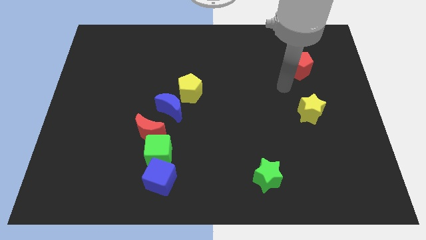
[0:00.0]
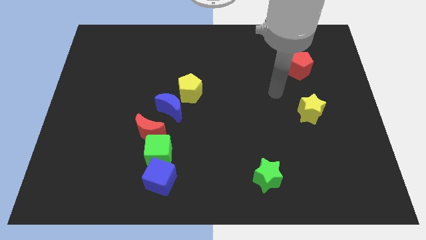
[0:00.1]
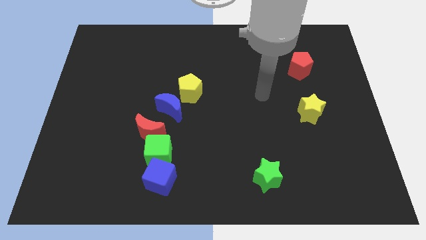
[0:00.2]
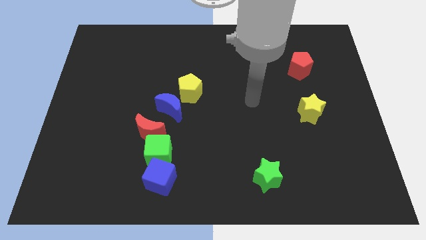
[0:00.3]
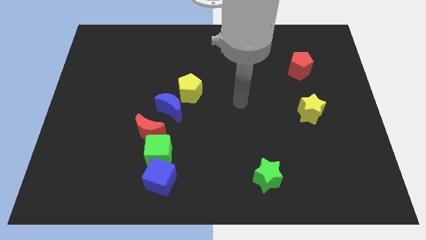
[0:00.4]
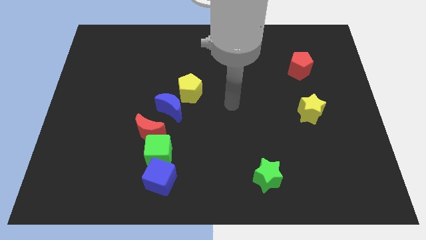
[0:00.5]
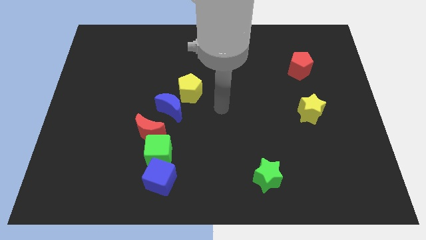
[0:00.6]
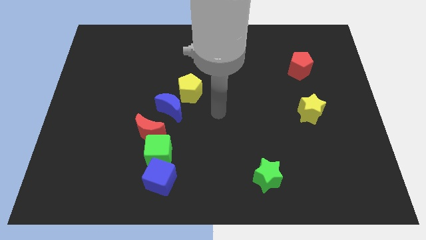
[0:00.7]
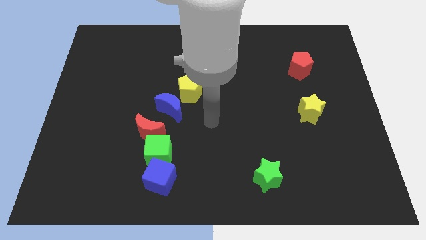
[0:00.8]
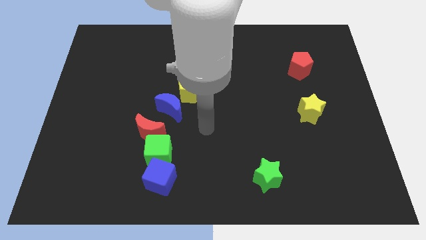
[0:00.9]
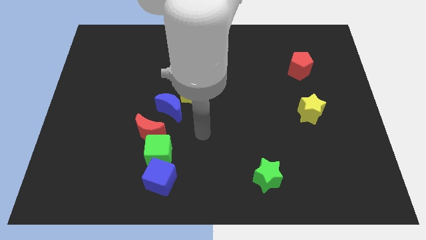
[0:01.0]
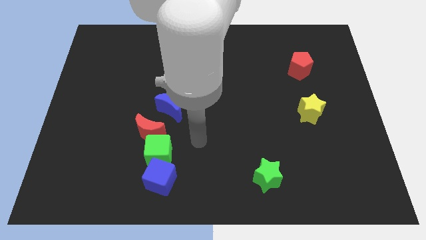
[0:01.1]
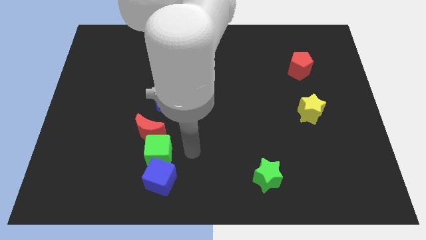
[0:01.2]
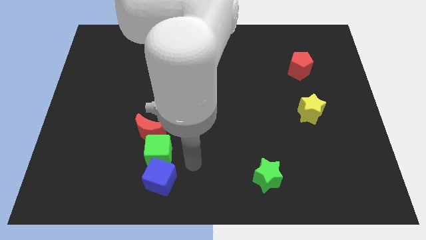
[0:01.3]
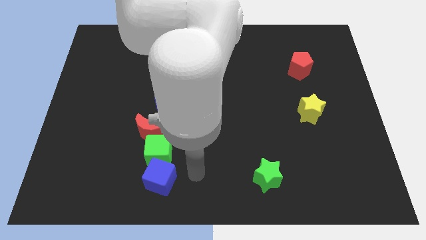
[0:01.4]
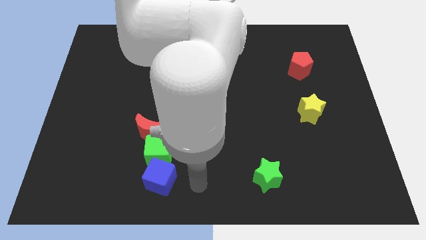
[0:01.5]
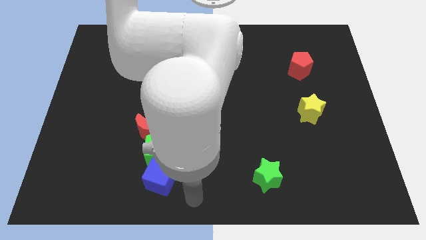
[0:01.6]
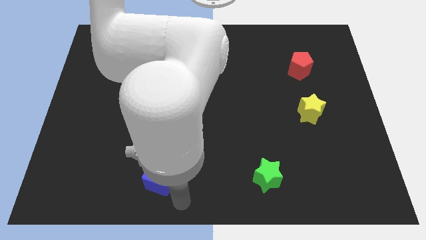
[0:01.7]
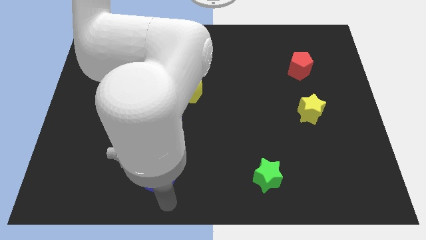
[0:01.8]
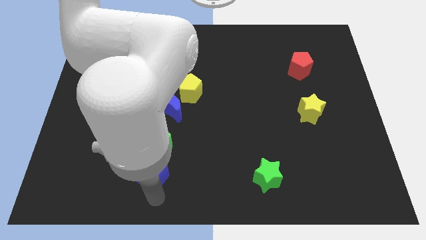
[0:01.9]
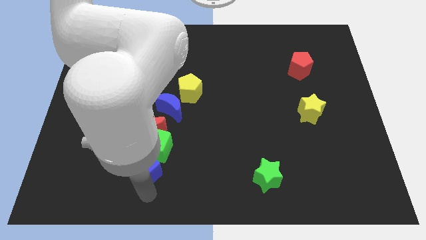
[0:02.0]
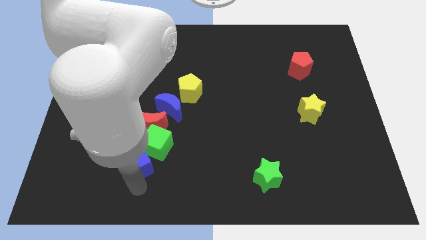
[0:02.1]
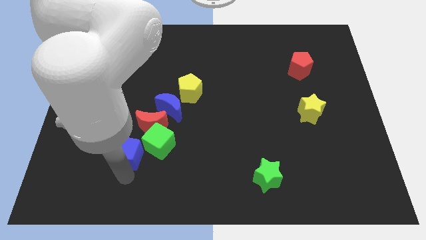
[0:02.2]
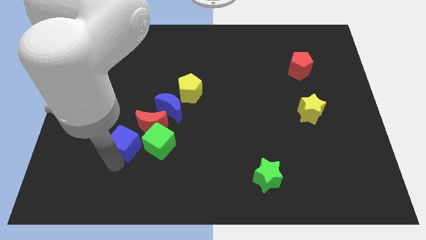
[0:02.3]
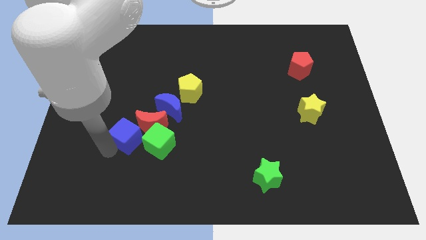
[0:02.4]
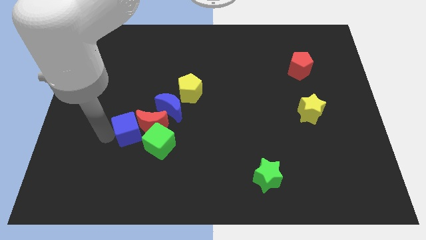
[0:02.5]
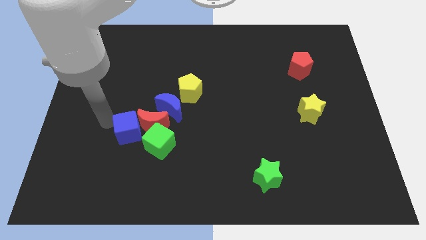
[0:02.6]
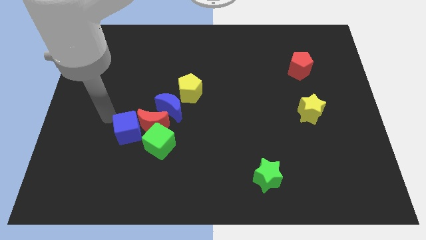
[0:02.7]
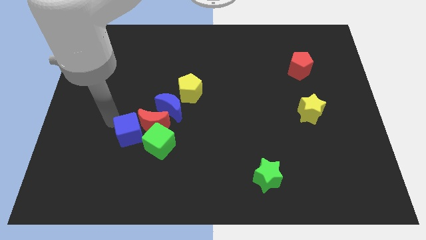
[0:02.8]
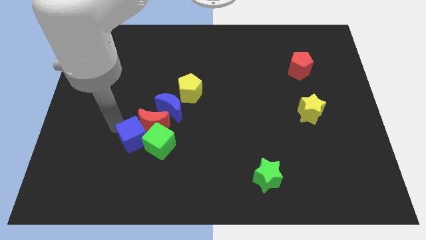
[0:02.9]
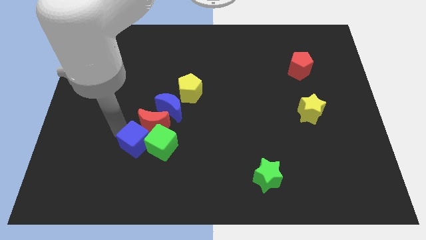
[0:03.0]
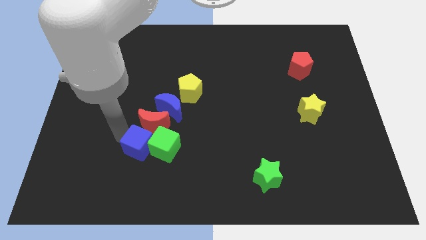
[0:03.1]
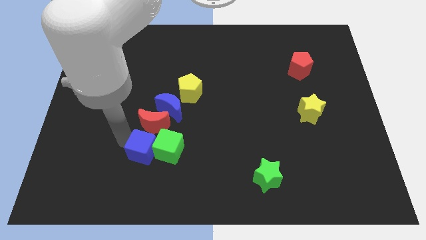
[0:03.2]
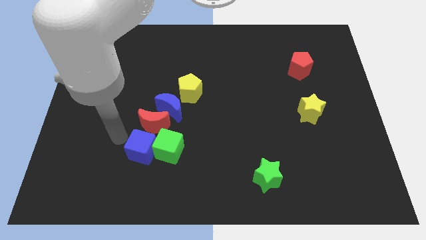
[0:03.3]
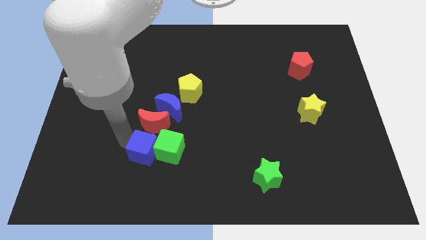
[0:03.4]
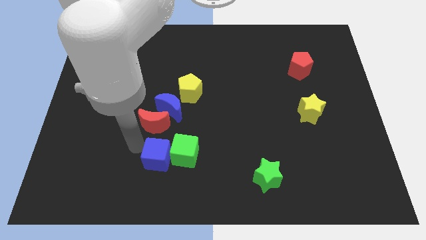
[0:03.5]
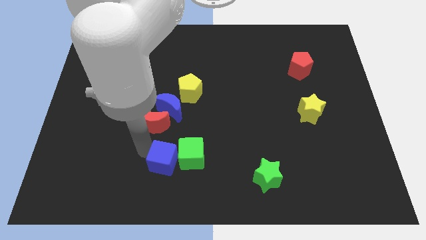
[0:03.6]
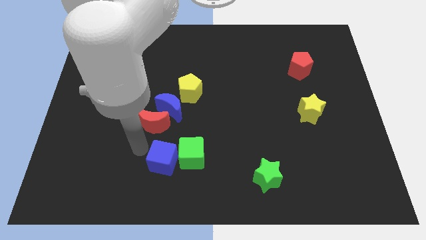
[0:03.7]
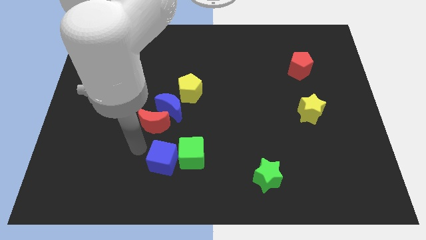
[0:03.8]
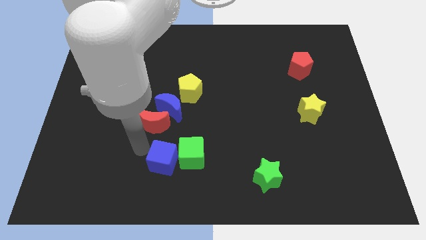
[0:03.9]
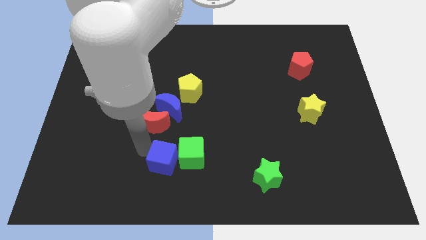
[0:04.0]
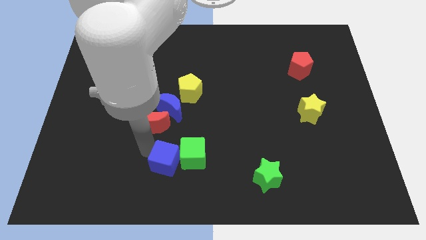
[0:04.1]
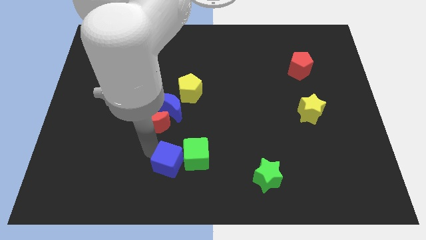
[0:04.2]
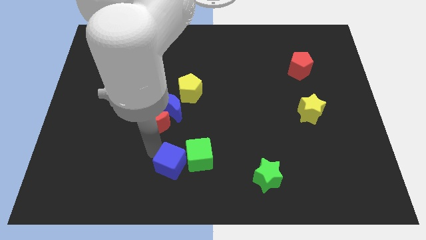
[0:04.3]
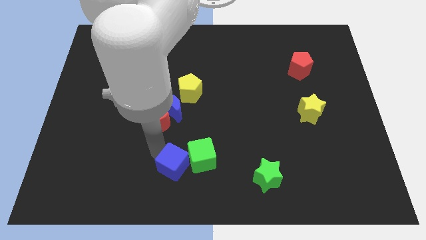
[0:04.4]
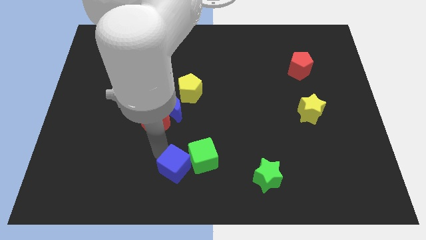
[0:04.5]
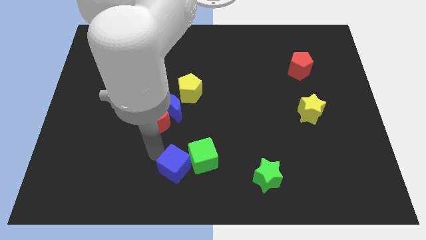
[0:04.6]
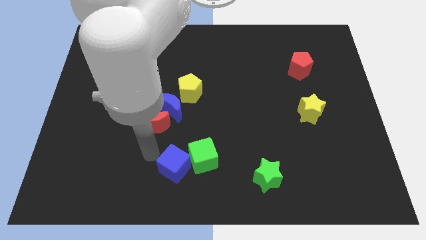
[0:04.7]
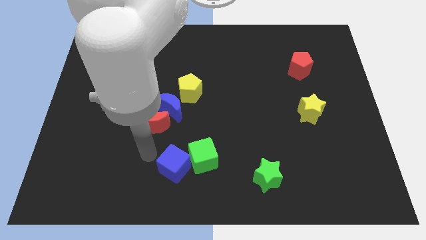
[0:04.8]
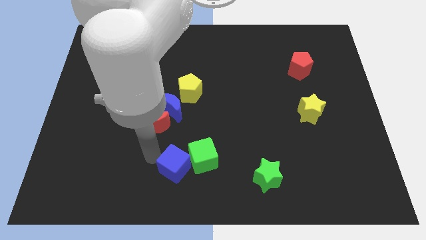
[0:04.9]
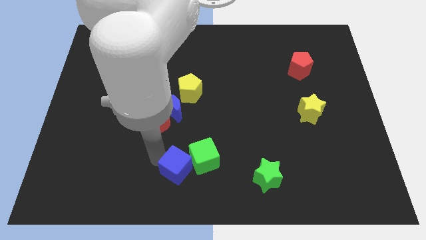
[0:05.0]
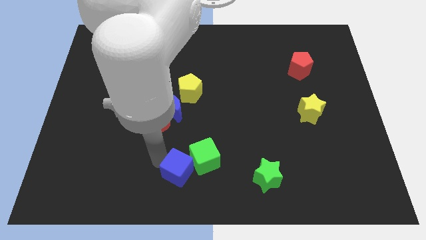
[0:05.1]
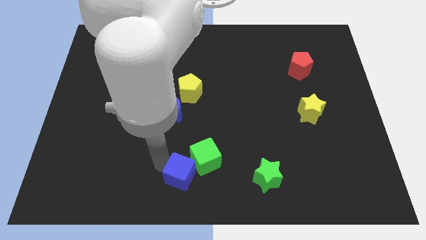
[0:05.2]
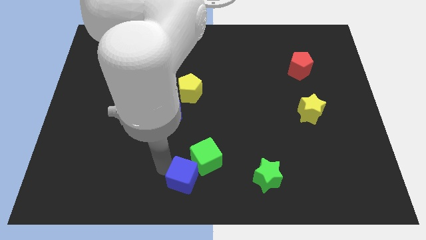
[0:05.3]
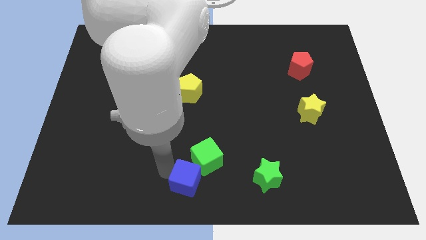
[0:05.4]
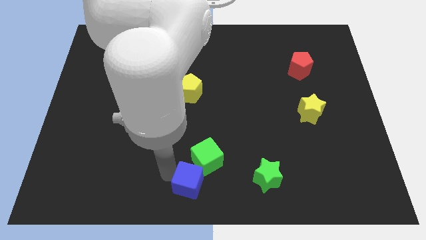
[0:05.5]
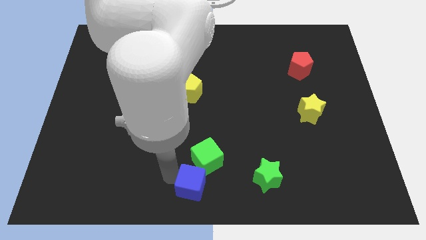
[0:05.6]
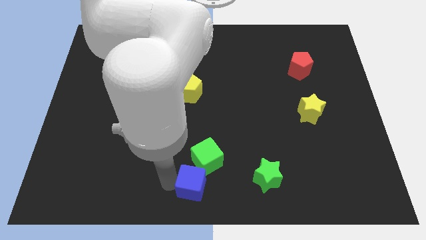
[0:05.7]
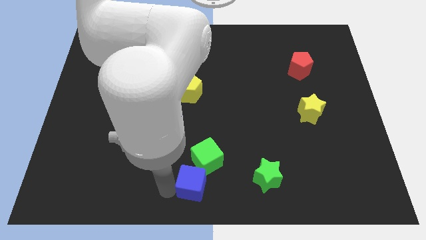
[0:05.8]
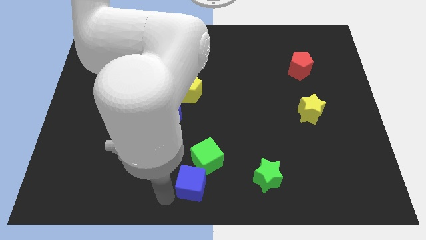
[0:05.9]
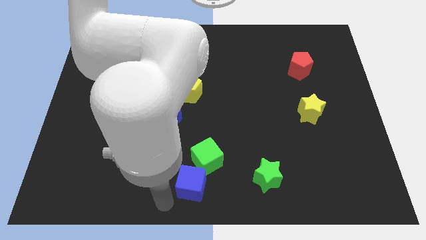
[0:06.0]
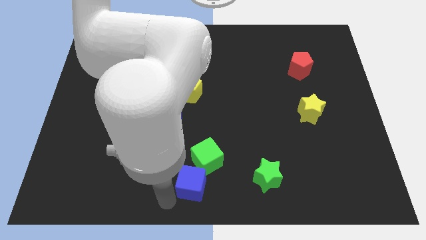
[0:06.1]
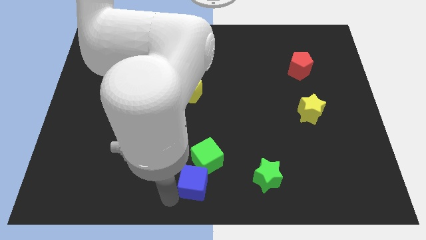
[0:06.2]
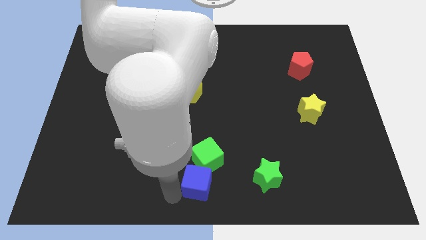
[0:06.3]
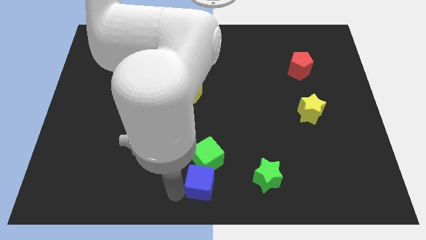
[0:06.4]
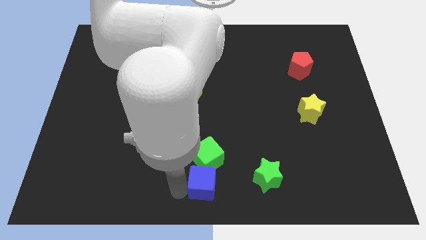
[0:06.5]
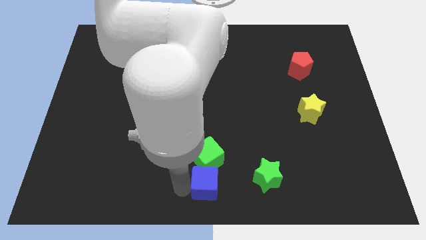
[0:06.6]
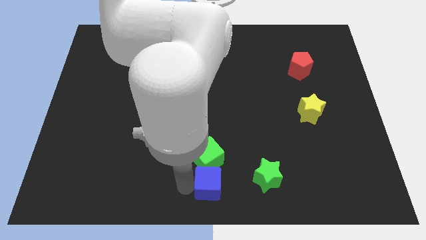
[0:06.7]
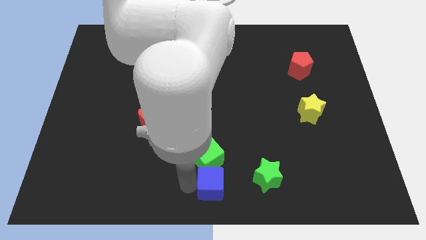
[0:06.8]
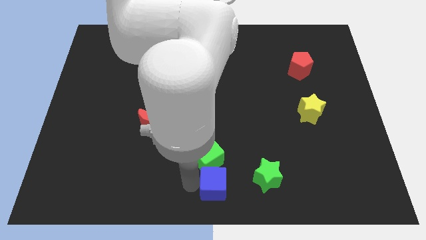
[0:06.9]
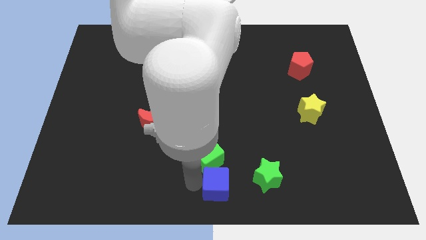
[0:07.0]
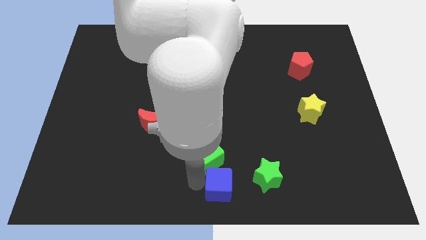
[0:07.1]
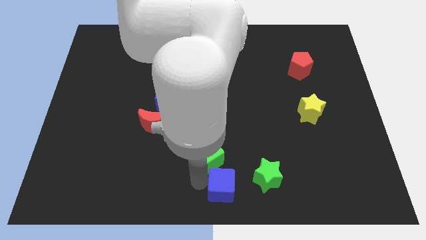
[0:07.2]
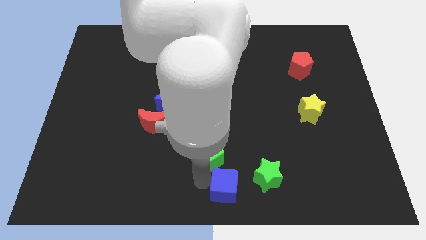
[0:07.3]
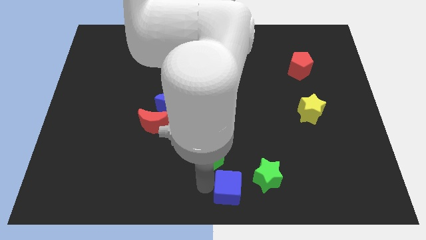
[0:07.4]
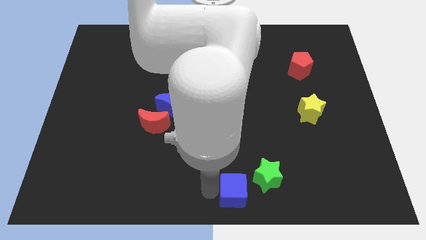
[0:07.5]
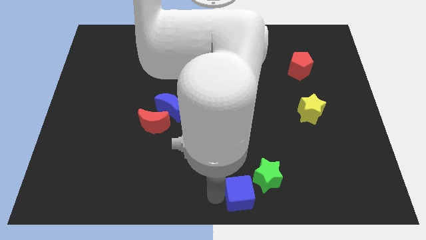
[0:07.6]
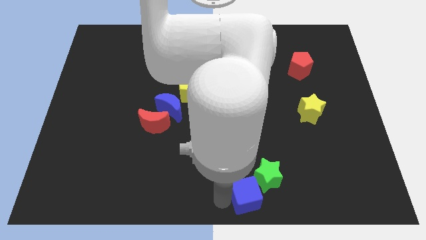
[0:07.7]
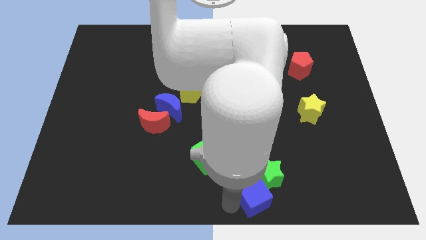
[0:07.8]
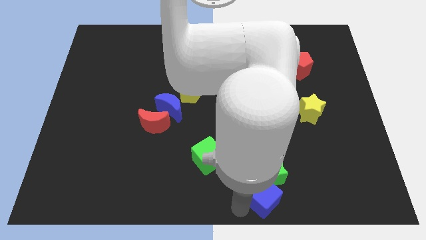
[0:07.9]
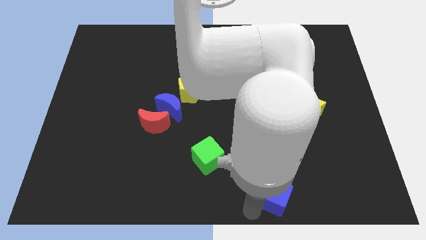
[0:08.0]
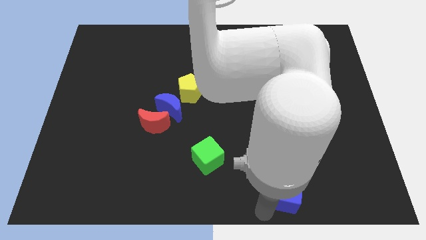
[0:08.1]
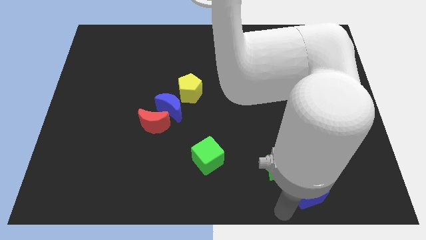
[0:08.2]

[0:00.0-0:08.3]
put the blue cube just right of the green star
